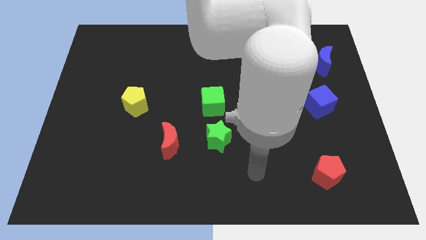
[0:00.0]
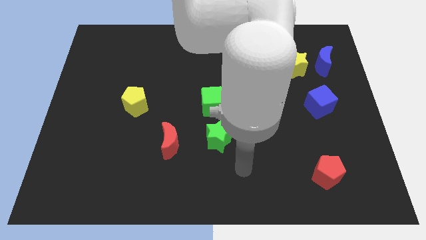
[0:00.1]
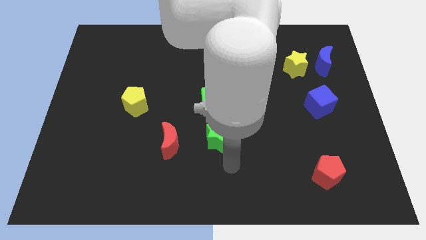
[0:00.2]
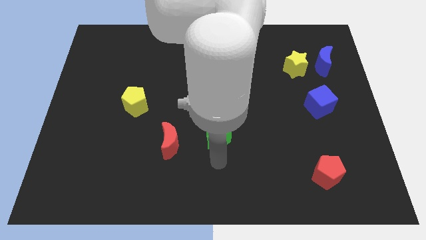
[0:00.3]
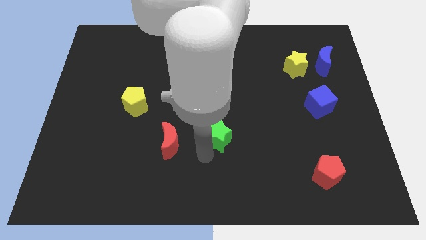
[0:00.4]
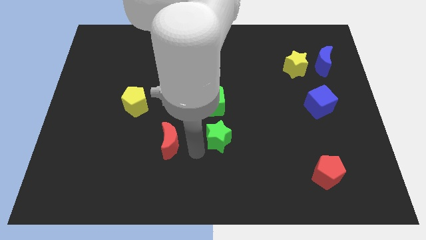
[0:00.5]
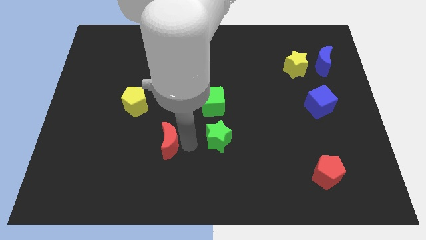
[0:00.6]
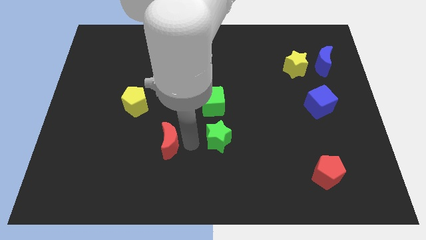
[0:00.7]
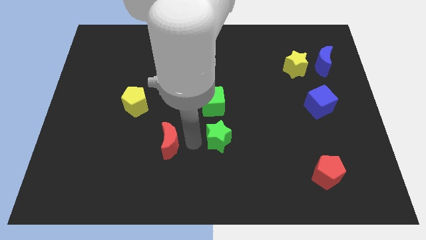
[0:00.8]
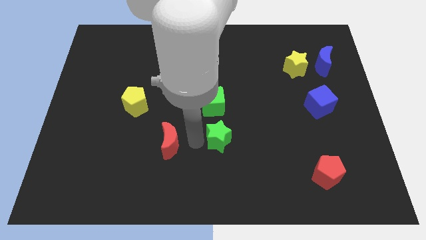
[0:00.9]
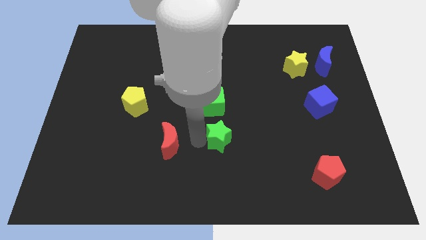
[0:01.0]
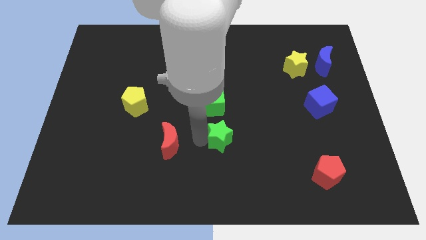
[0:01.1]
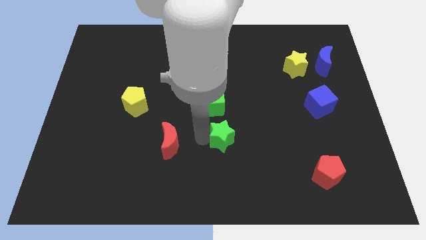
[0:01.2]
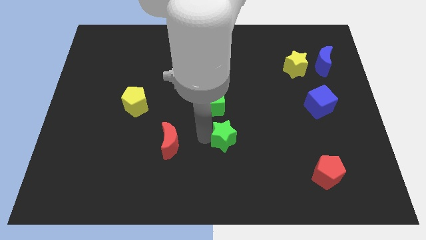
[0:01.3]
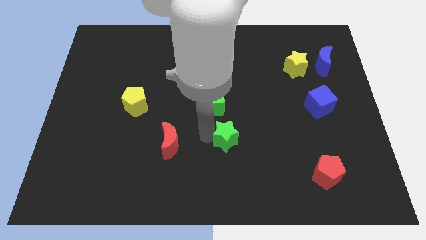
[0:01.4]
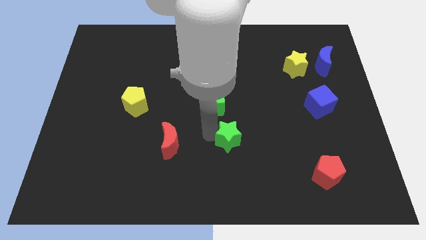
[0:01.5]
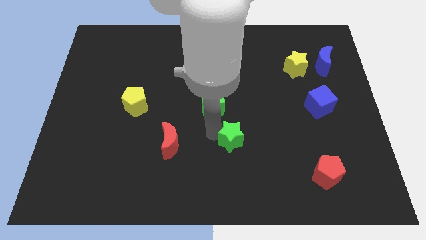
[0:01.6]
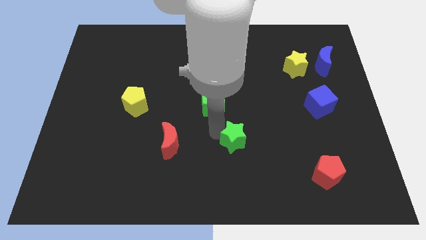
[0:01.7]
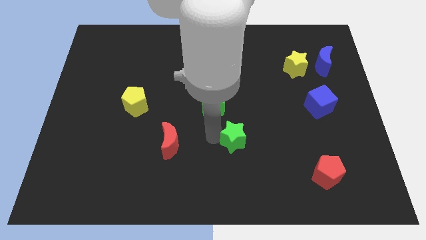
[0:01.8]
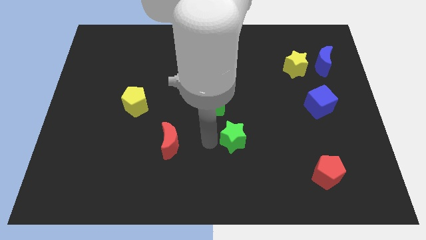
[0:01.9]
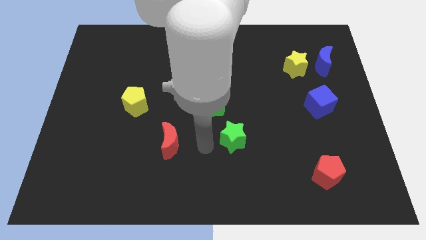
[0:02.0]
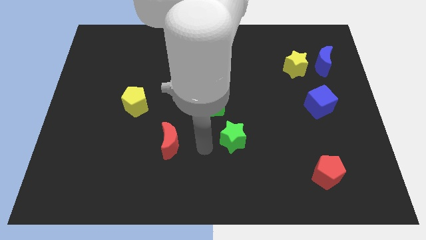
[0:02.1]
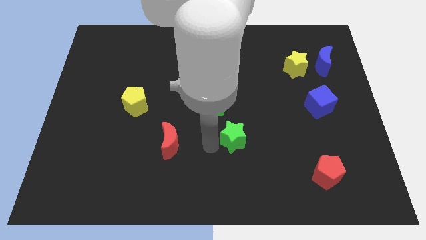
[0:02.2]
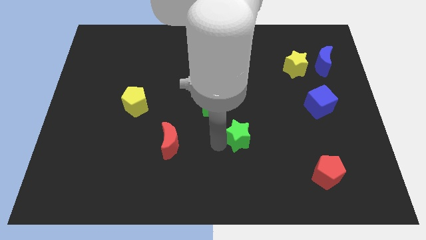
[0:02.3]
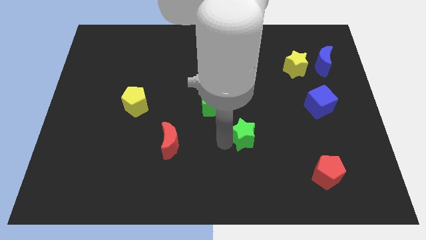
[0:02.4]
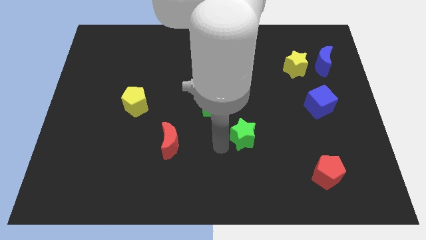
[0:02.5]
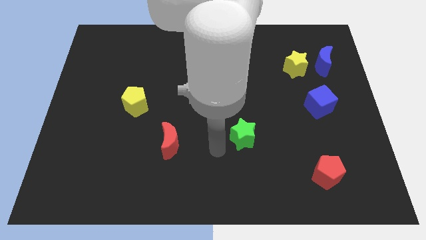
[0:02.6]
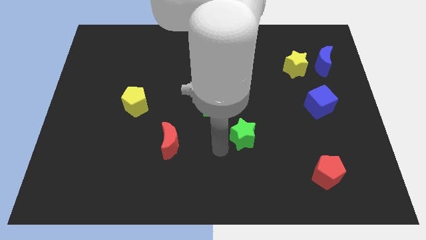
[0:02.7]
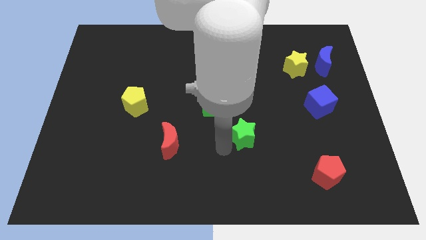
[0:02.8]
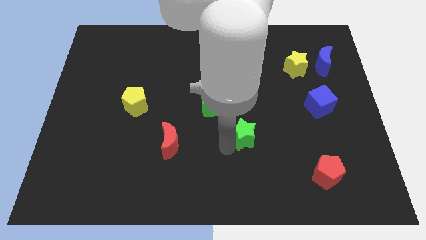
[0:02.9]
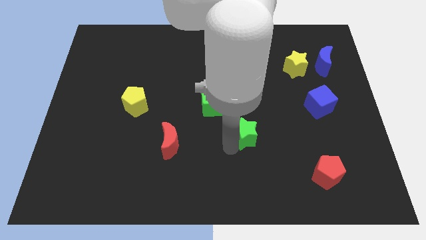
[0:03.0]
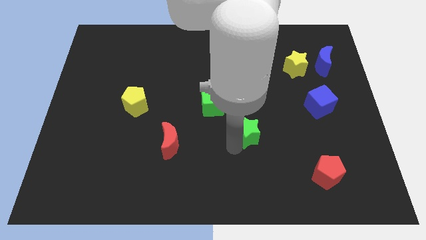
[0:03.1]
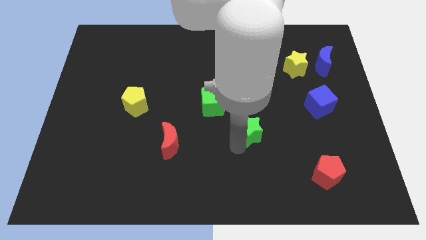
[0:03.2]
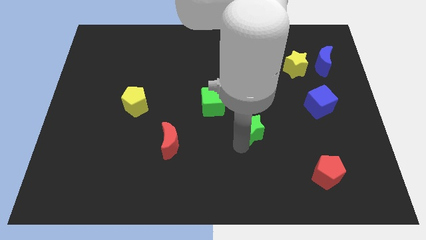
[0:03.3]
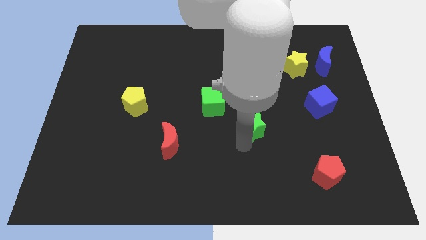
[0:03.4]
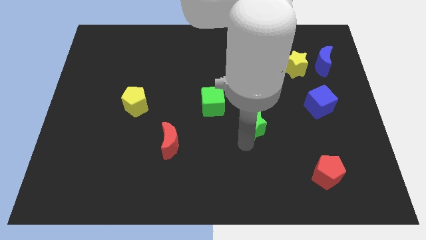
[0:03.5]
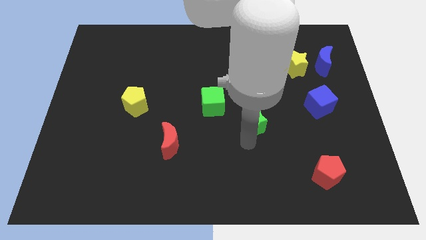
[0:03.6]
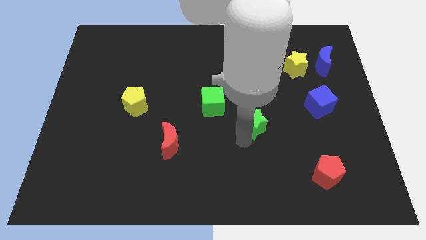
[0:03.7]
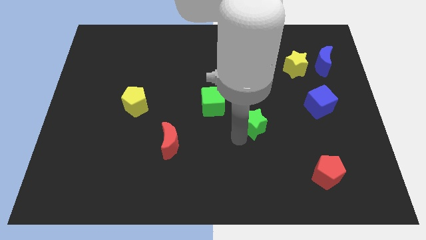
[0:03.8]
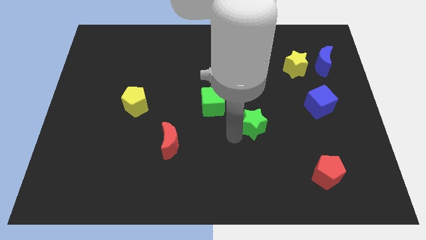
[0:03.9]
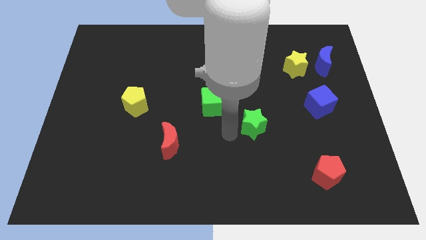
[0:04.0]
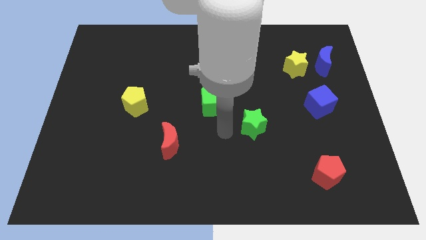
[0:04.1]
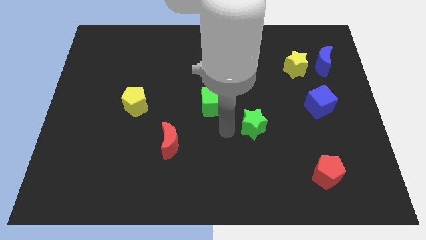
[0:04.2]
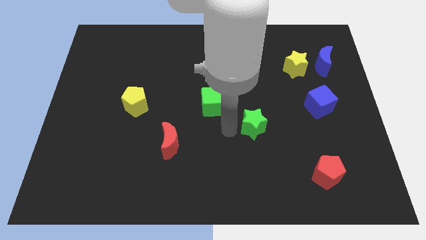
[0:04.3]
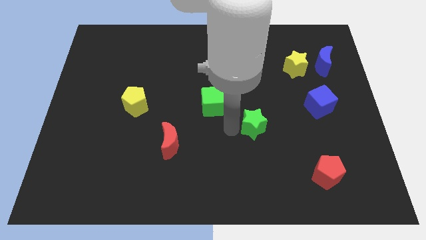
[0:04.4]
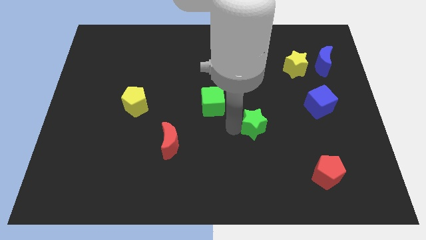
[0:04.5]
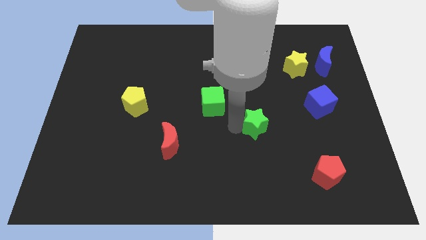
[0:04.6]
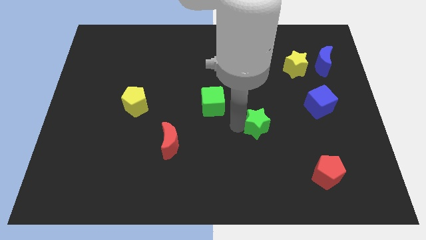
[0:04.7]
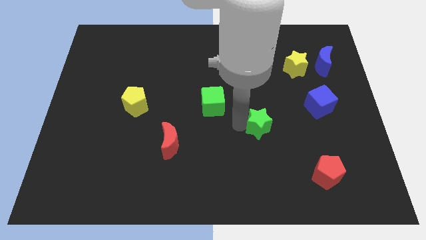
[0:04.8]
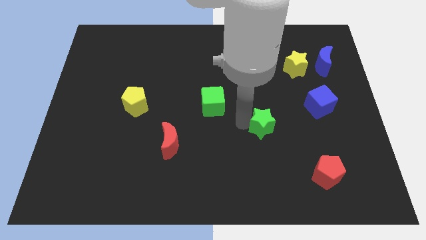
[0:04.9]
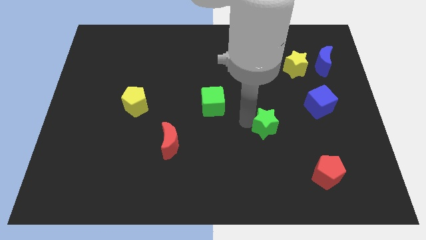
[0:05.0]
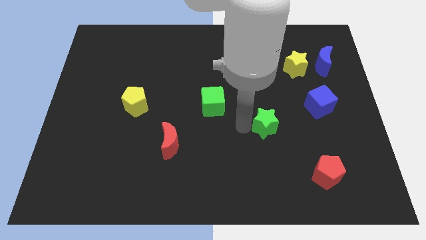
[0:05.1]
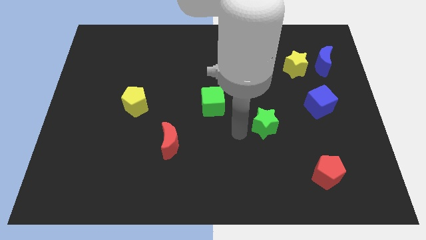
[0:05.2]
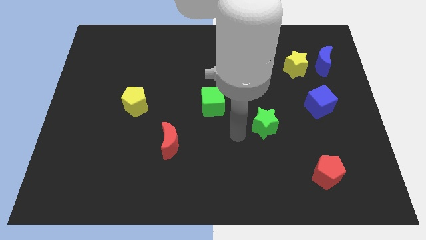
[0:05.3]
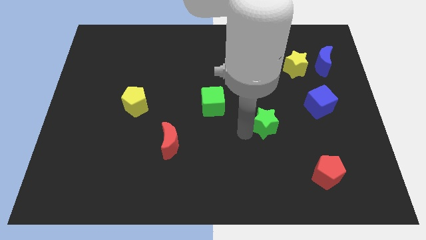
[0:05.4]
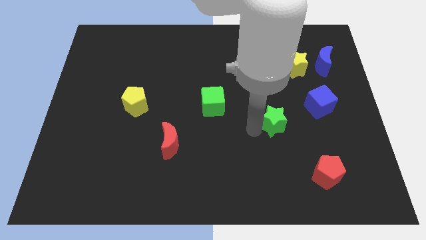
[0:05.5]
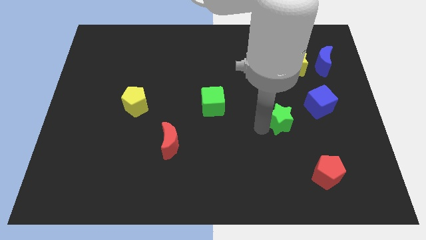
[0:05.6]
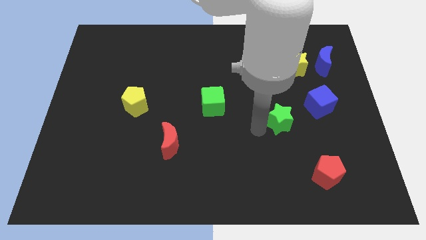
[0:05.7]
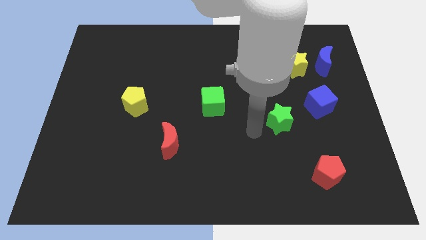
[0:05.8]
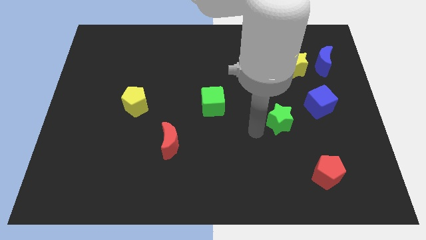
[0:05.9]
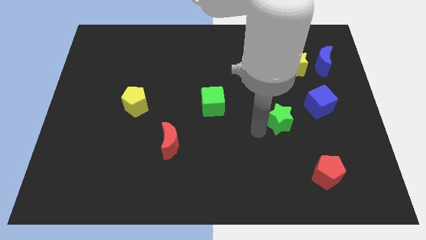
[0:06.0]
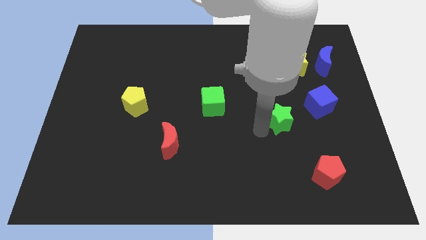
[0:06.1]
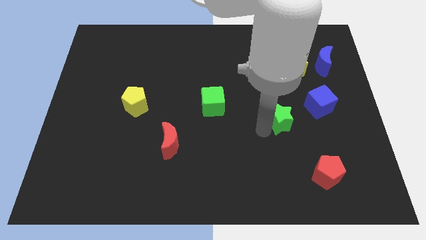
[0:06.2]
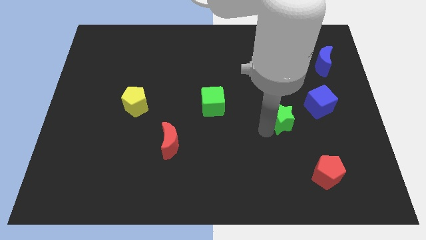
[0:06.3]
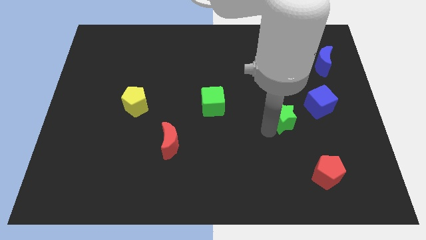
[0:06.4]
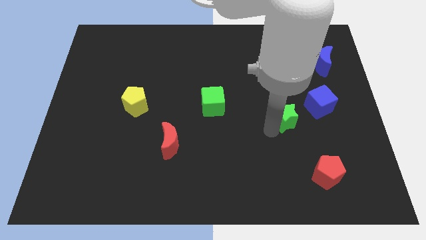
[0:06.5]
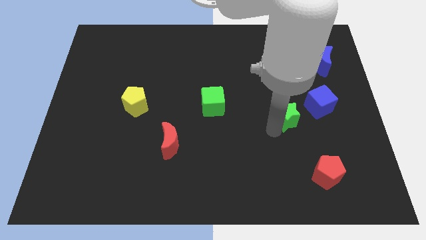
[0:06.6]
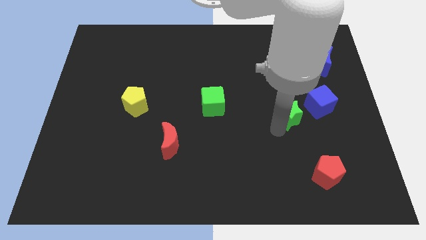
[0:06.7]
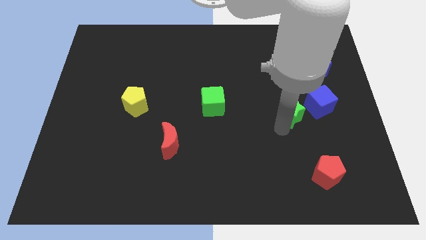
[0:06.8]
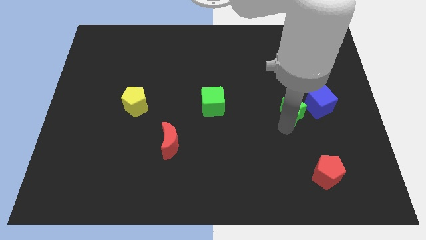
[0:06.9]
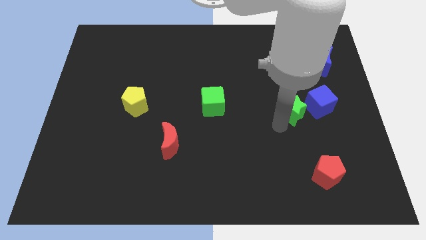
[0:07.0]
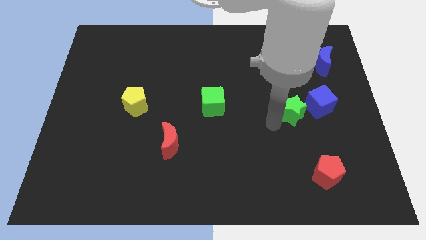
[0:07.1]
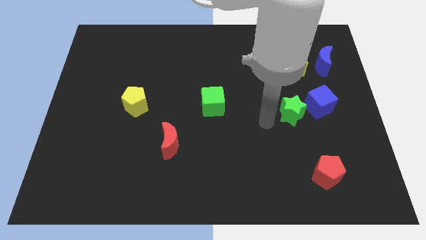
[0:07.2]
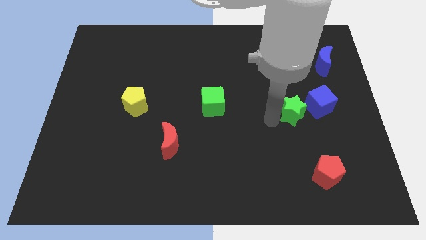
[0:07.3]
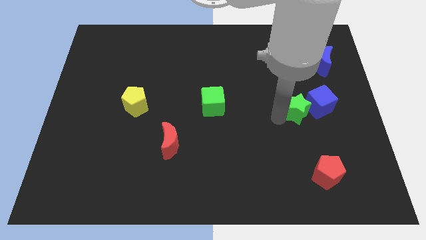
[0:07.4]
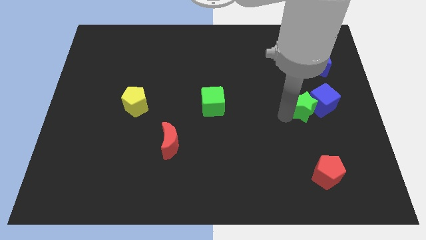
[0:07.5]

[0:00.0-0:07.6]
push the green star towards the blue cube
